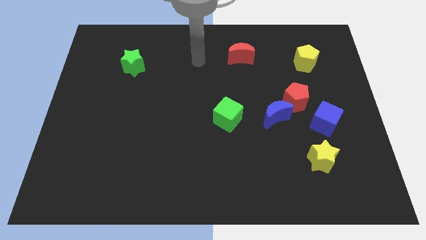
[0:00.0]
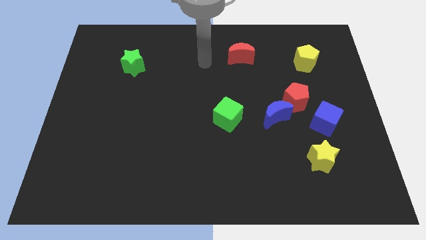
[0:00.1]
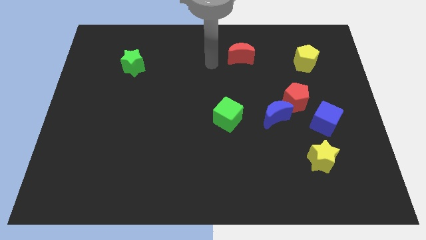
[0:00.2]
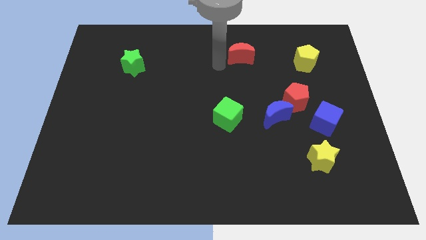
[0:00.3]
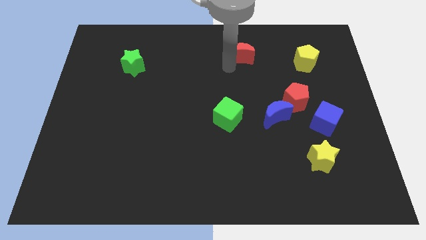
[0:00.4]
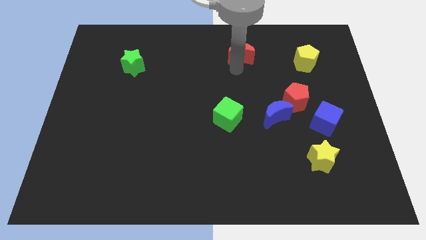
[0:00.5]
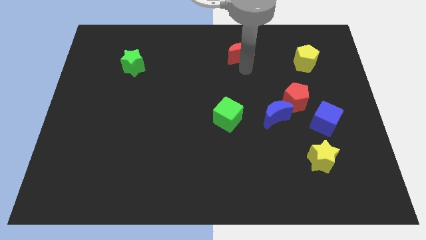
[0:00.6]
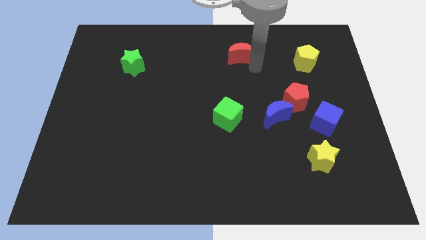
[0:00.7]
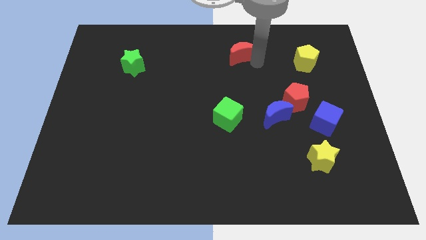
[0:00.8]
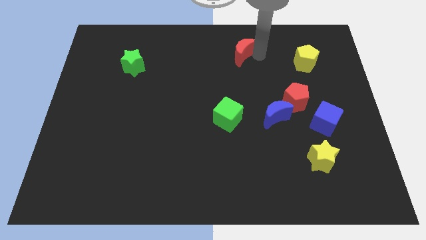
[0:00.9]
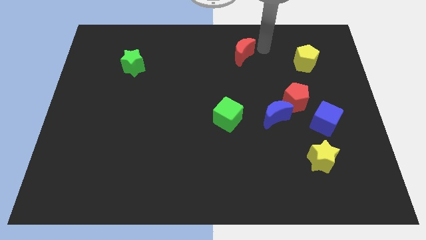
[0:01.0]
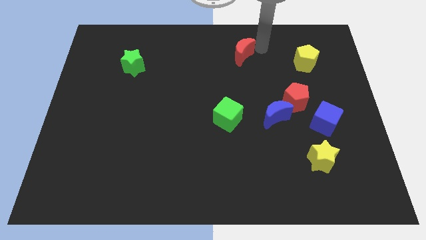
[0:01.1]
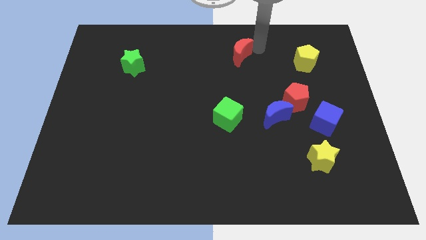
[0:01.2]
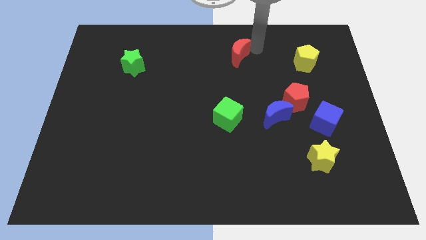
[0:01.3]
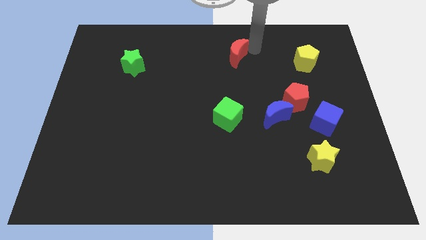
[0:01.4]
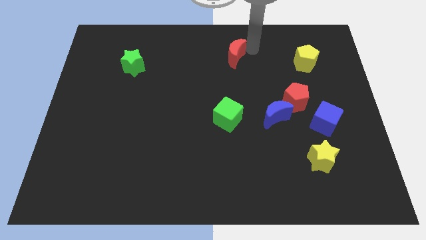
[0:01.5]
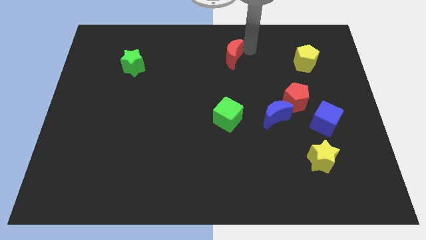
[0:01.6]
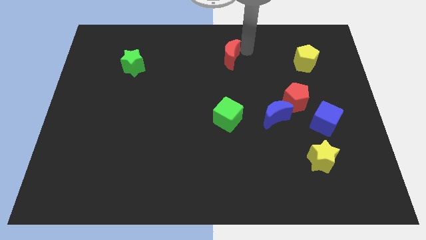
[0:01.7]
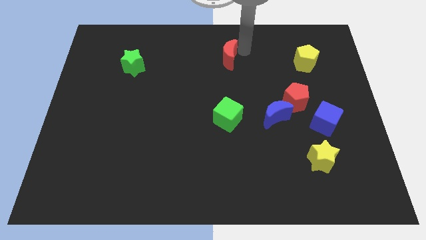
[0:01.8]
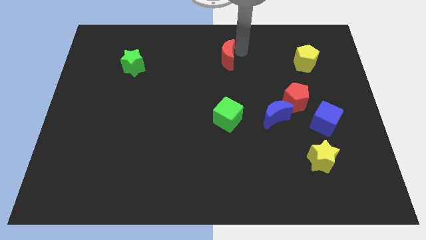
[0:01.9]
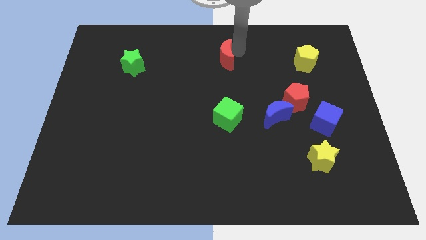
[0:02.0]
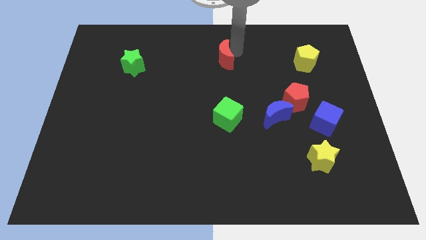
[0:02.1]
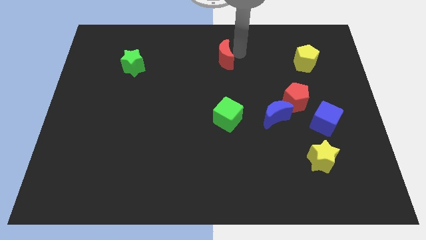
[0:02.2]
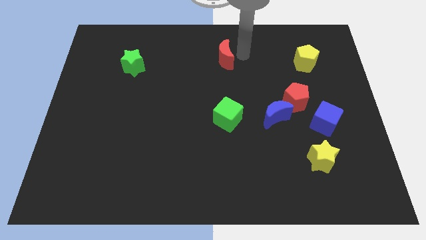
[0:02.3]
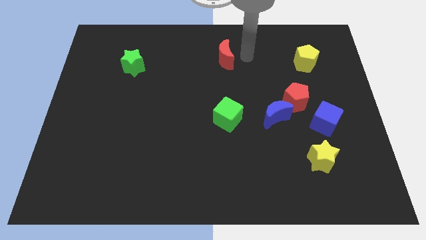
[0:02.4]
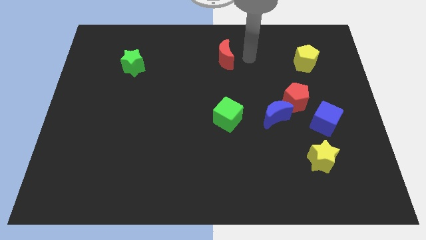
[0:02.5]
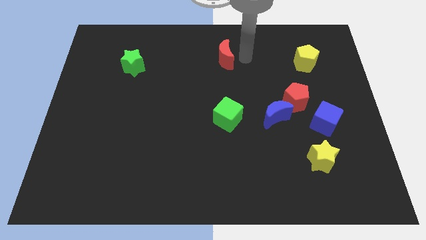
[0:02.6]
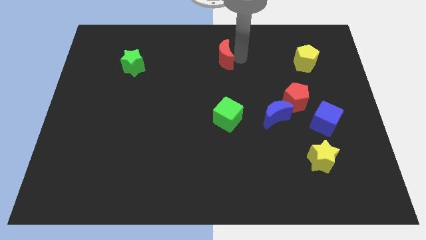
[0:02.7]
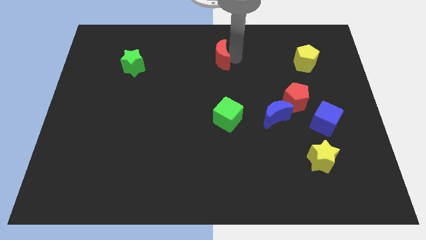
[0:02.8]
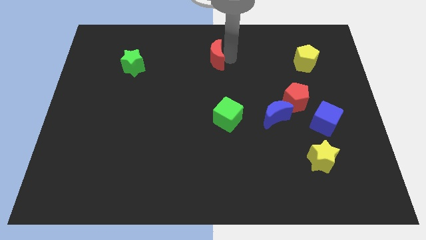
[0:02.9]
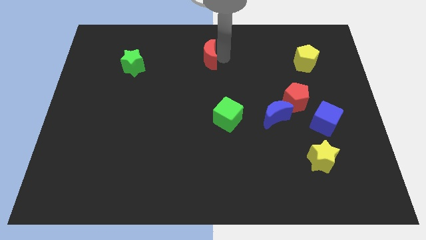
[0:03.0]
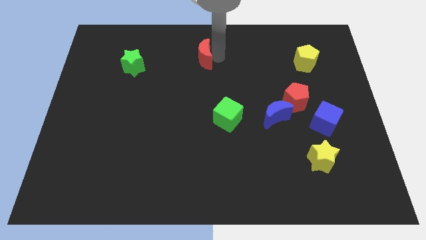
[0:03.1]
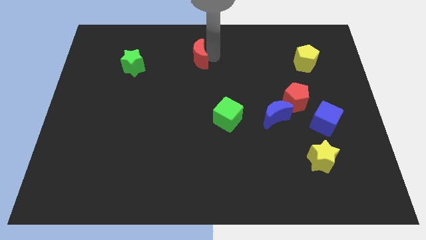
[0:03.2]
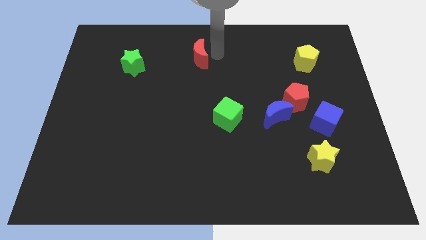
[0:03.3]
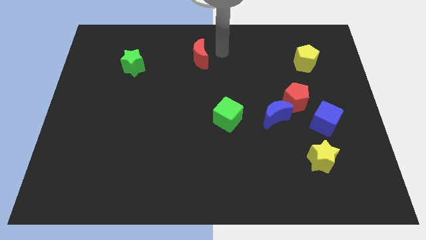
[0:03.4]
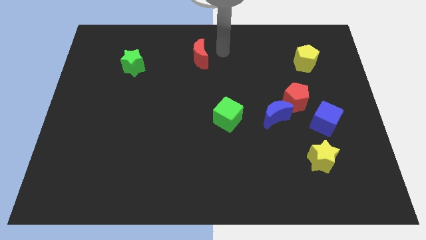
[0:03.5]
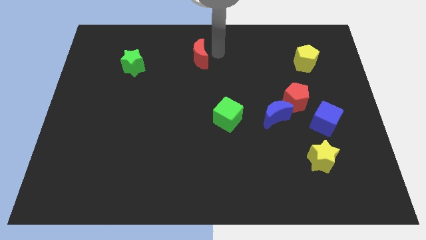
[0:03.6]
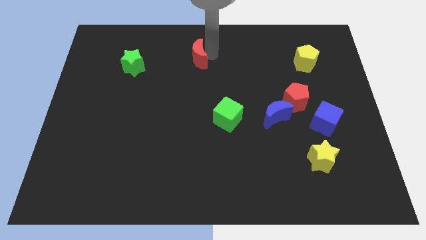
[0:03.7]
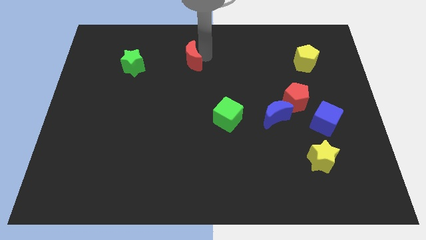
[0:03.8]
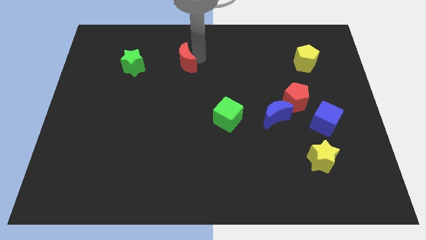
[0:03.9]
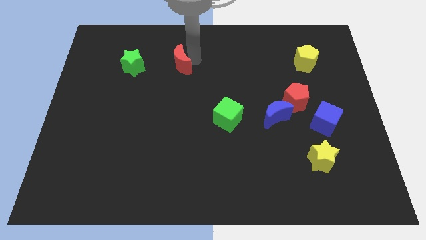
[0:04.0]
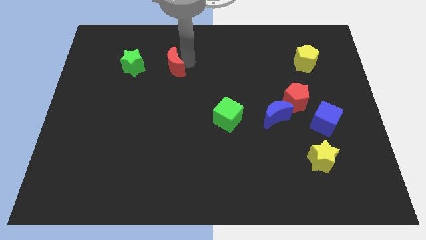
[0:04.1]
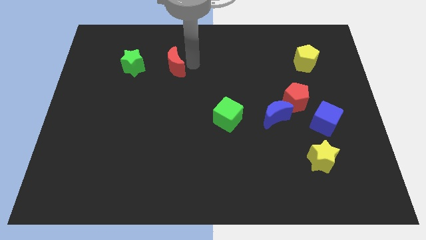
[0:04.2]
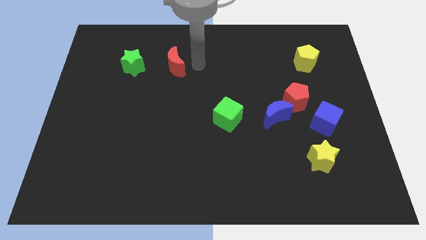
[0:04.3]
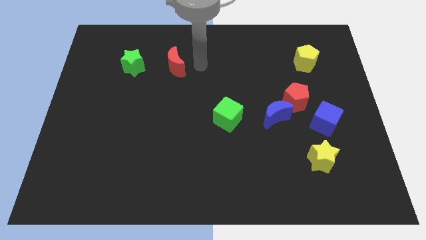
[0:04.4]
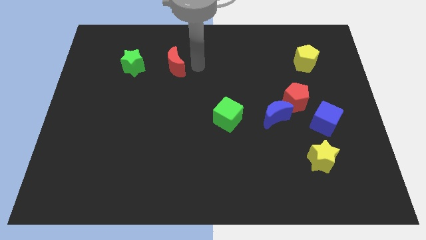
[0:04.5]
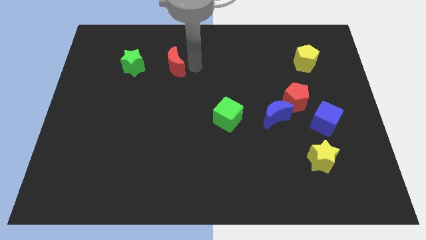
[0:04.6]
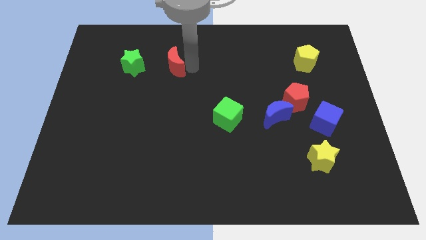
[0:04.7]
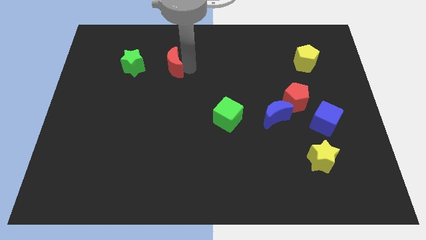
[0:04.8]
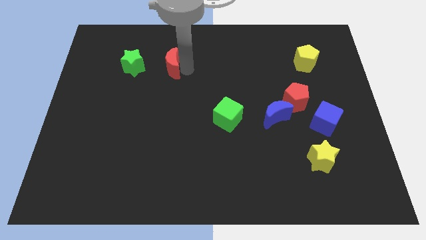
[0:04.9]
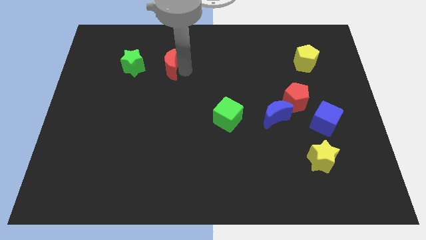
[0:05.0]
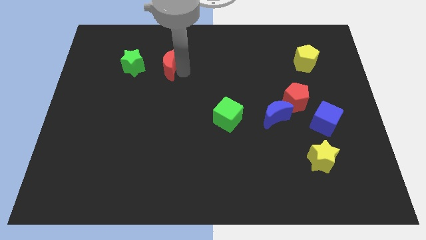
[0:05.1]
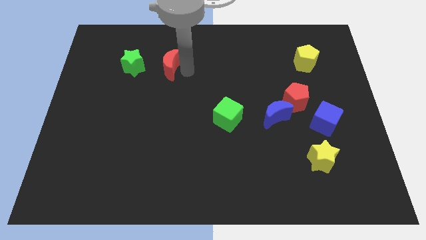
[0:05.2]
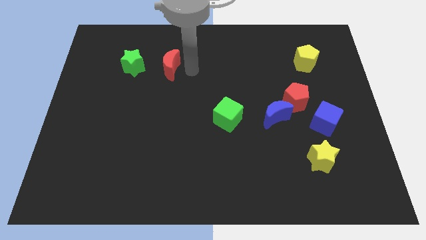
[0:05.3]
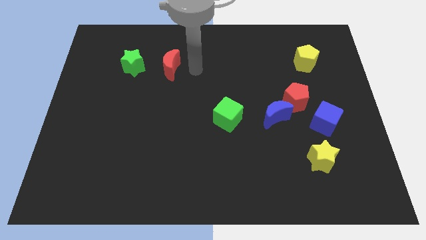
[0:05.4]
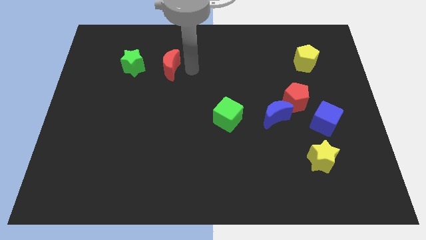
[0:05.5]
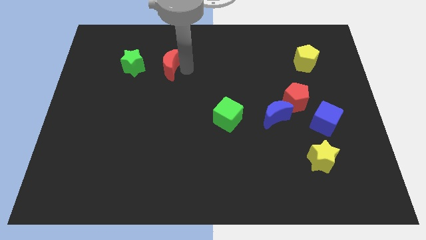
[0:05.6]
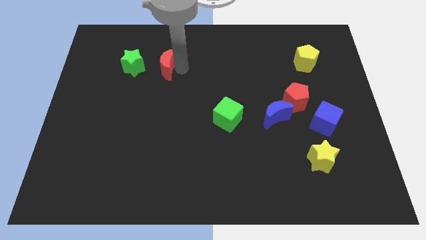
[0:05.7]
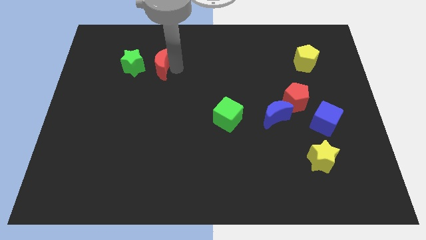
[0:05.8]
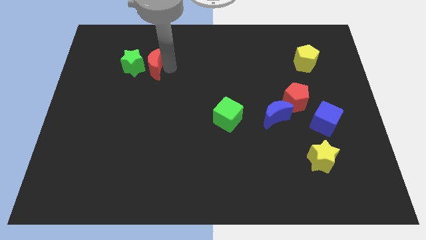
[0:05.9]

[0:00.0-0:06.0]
move the red moon next to the green star

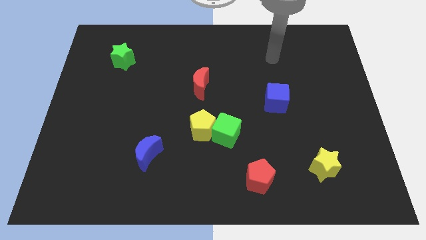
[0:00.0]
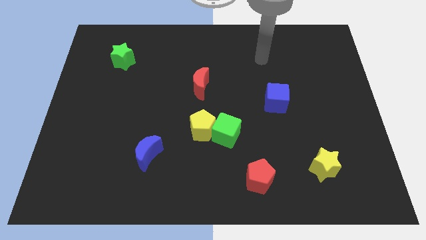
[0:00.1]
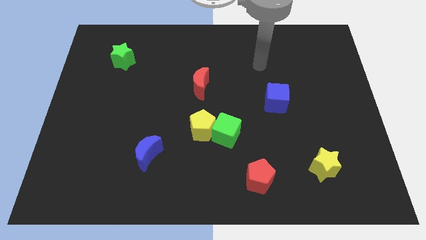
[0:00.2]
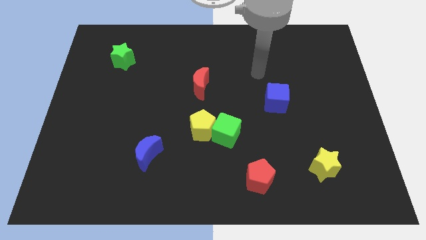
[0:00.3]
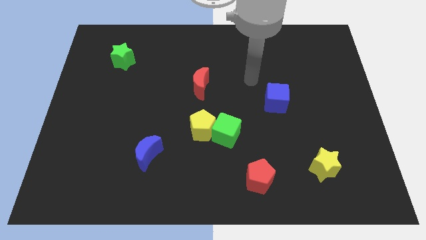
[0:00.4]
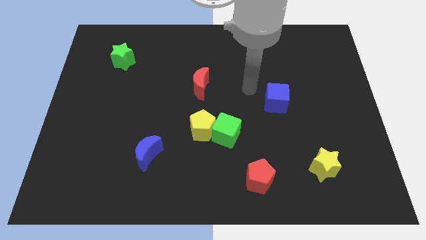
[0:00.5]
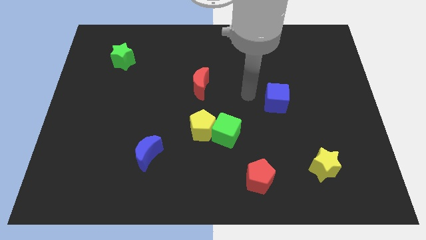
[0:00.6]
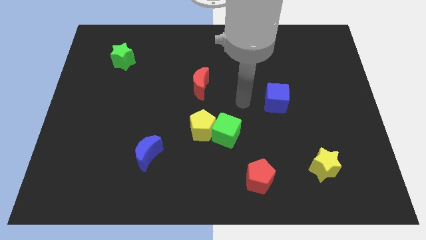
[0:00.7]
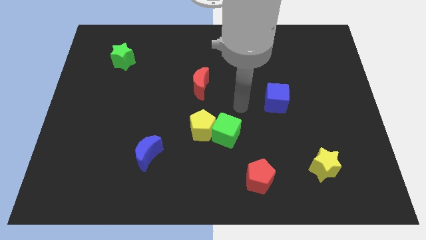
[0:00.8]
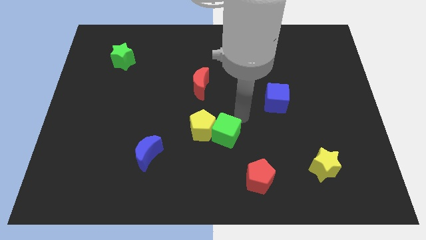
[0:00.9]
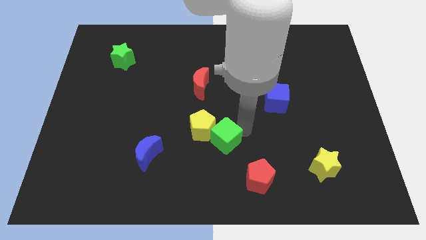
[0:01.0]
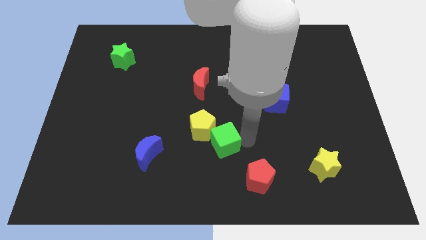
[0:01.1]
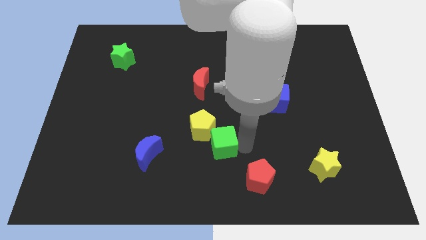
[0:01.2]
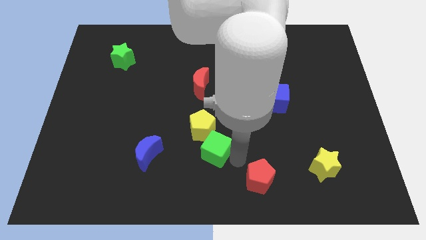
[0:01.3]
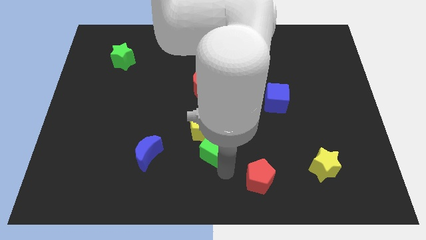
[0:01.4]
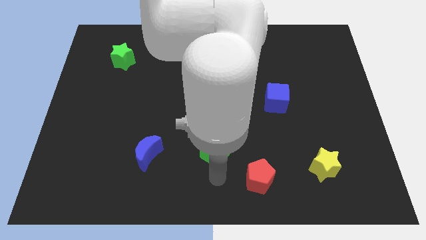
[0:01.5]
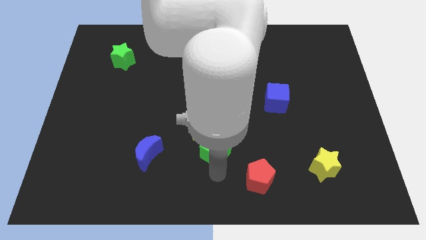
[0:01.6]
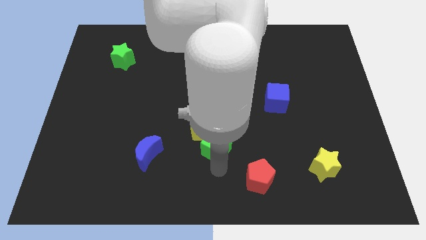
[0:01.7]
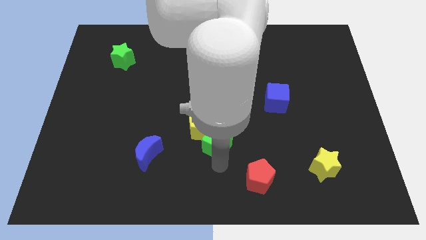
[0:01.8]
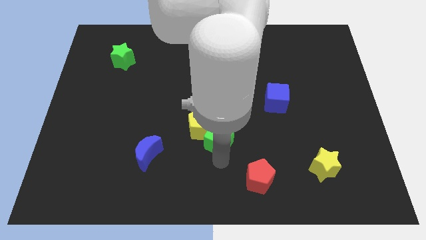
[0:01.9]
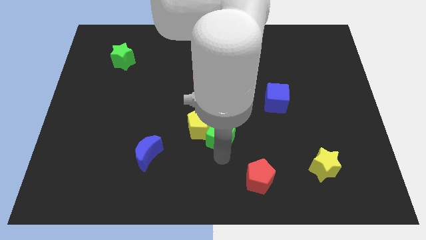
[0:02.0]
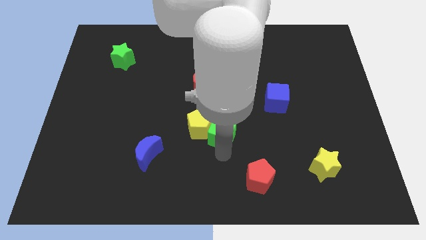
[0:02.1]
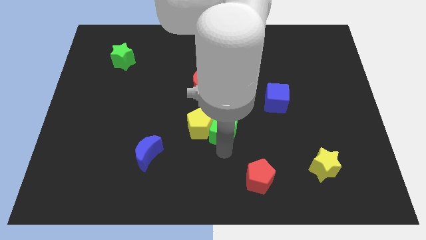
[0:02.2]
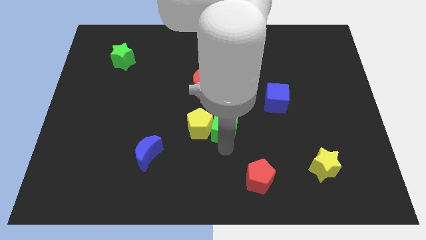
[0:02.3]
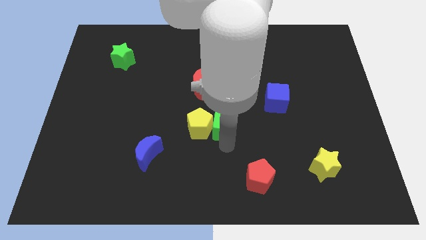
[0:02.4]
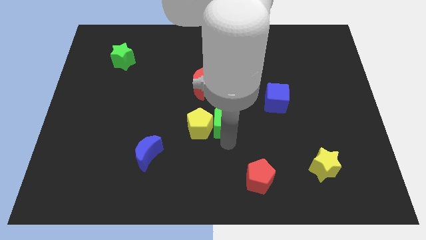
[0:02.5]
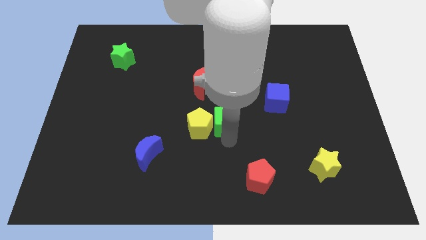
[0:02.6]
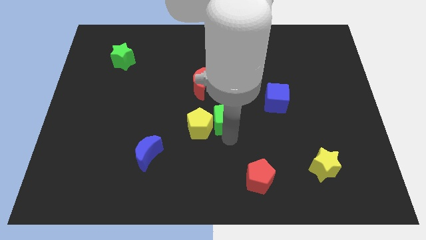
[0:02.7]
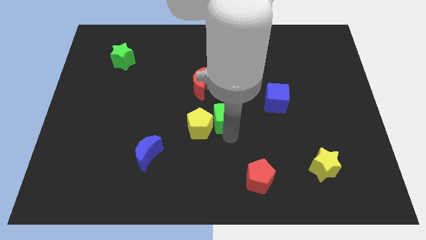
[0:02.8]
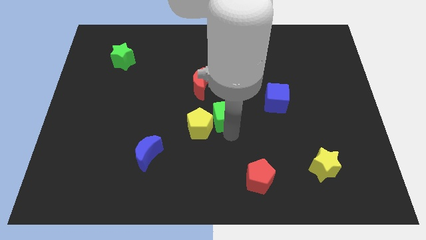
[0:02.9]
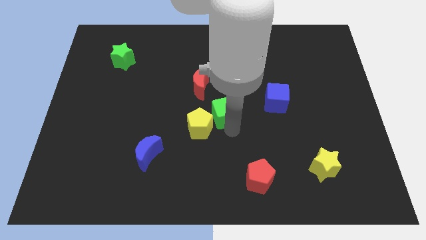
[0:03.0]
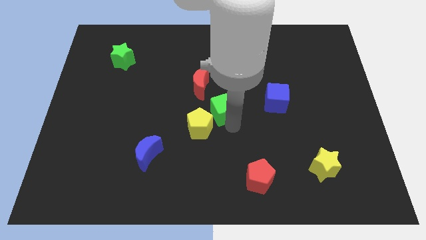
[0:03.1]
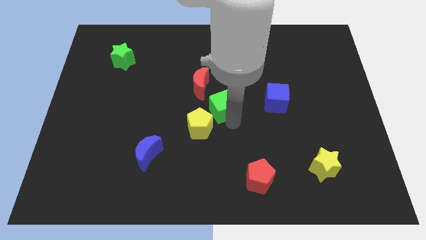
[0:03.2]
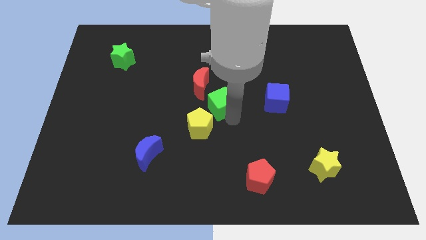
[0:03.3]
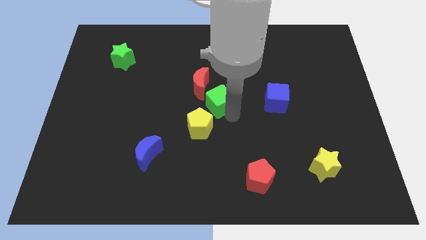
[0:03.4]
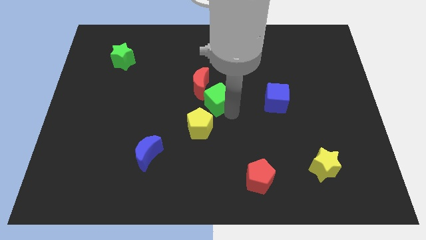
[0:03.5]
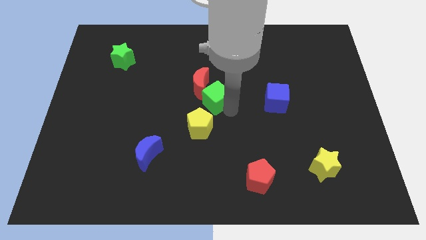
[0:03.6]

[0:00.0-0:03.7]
put the green cube towards the red moon
